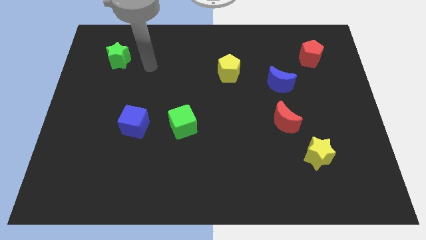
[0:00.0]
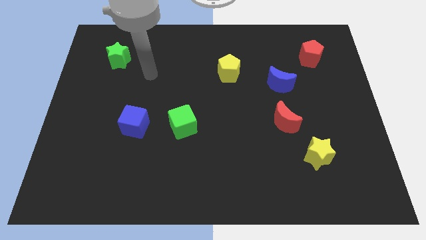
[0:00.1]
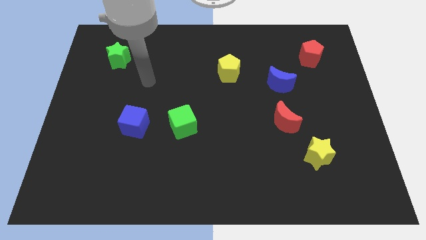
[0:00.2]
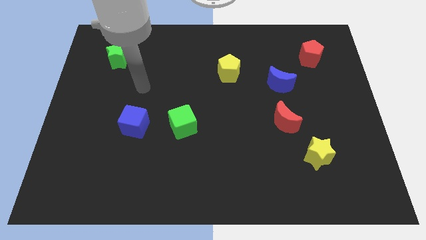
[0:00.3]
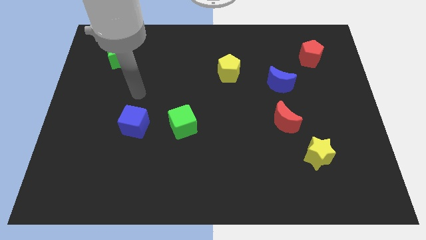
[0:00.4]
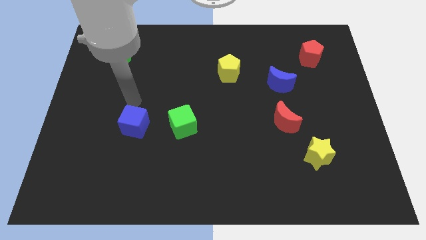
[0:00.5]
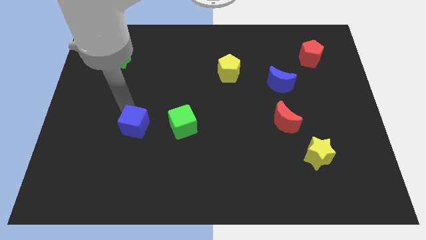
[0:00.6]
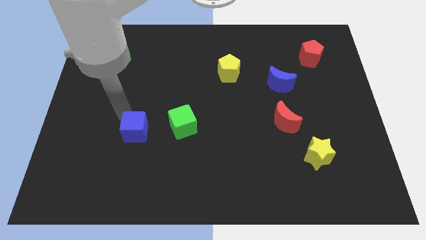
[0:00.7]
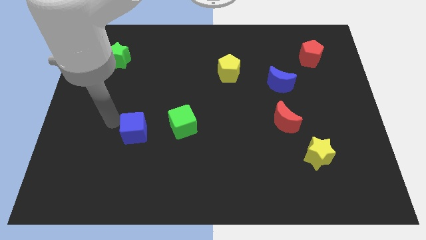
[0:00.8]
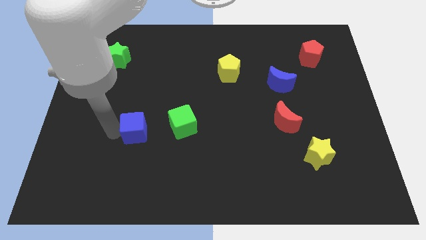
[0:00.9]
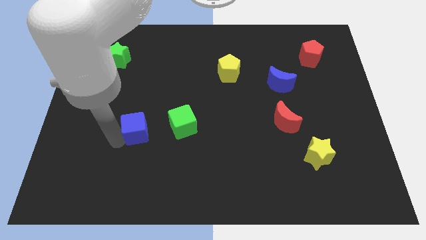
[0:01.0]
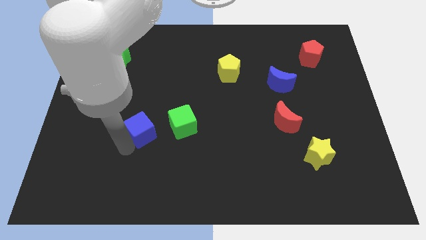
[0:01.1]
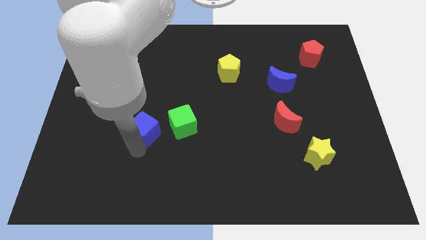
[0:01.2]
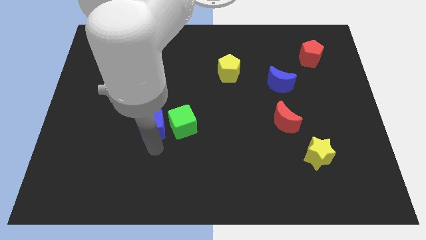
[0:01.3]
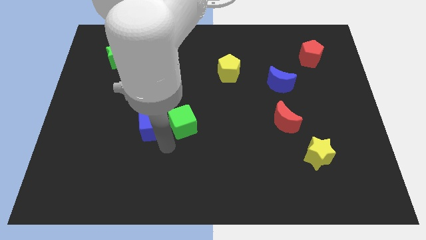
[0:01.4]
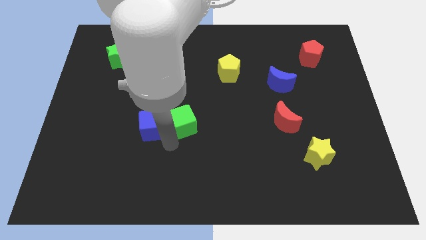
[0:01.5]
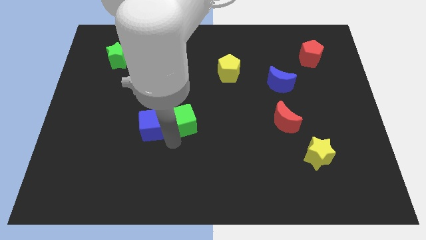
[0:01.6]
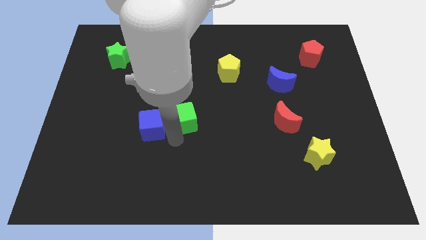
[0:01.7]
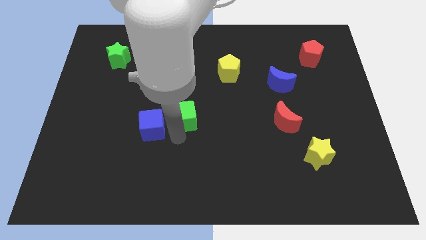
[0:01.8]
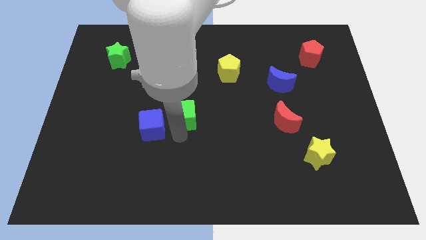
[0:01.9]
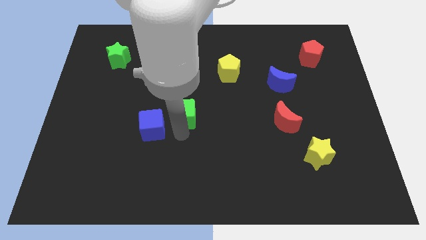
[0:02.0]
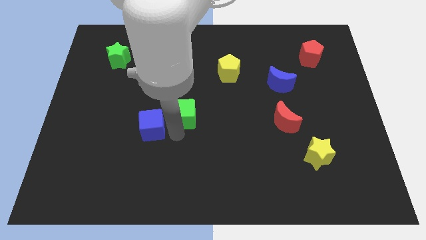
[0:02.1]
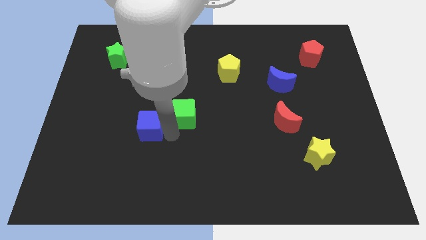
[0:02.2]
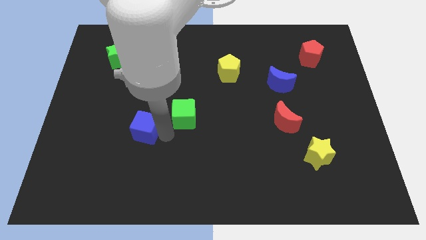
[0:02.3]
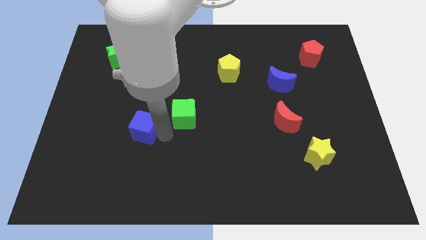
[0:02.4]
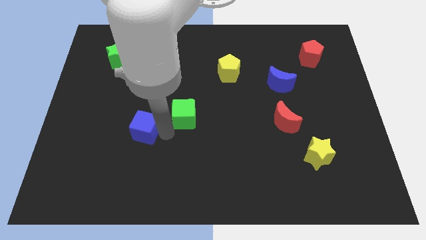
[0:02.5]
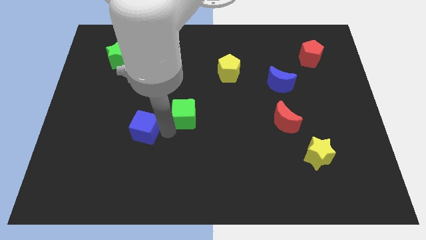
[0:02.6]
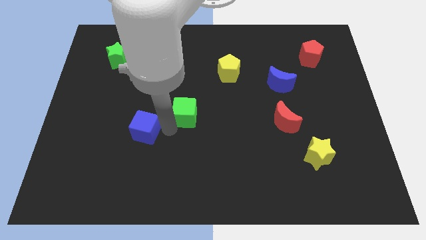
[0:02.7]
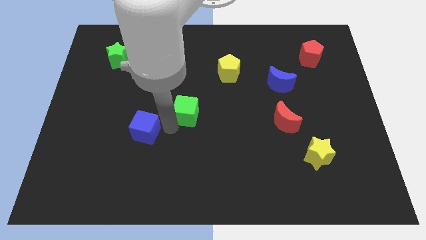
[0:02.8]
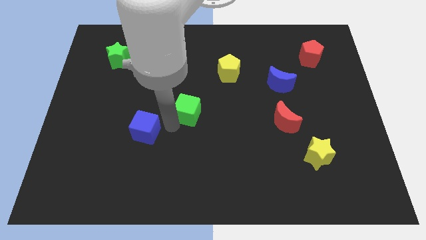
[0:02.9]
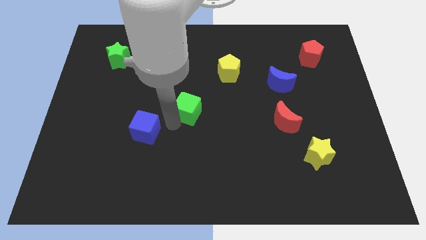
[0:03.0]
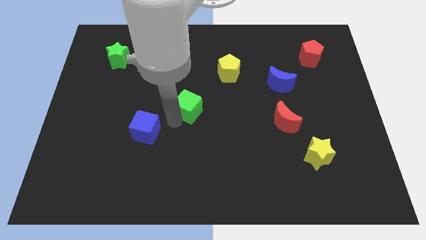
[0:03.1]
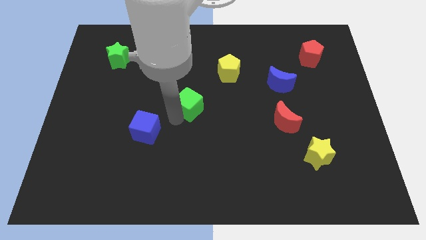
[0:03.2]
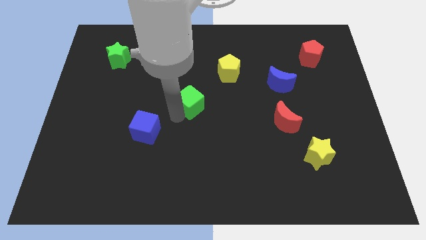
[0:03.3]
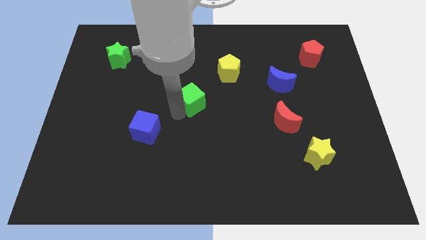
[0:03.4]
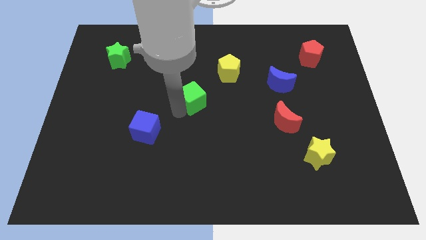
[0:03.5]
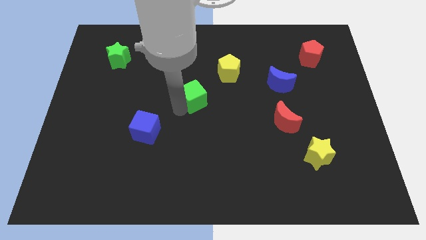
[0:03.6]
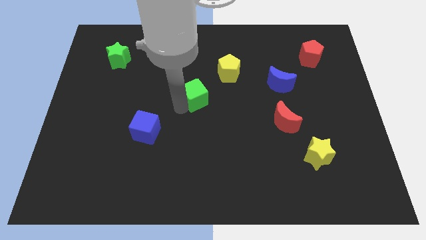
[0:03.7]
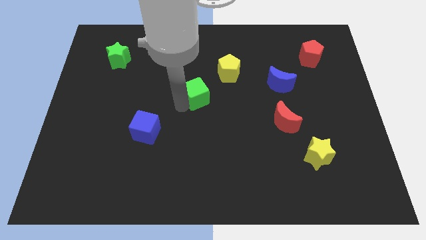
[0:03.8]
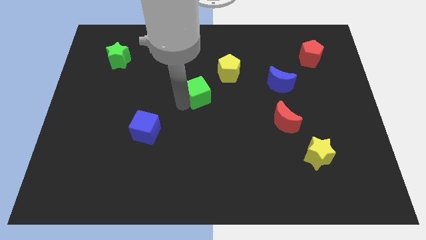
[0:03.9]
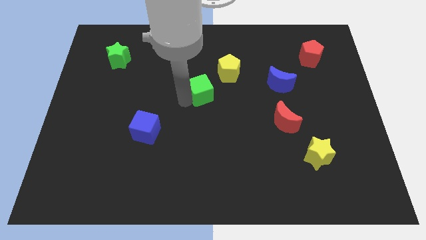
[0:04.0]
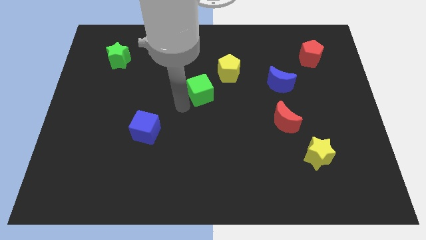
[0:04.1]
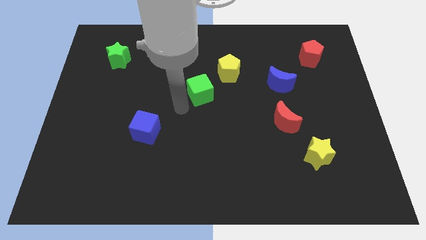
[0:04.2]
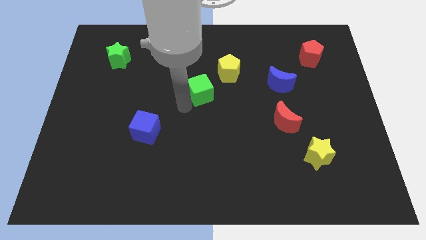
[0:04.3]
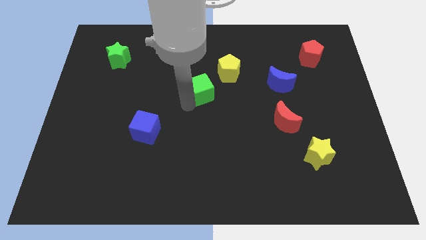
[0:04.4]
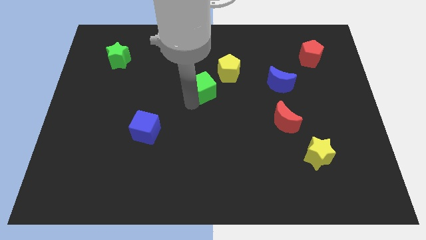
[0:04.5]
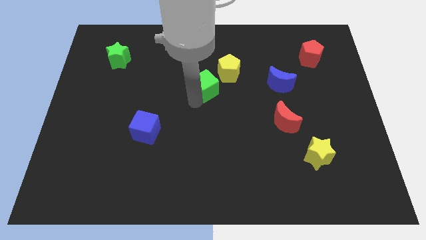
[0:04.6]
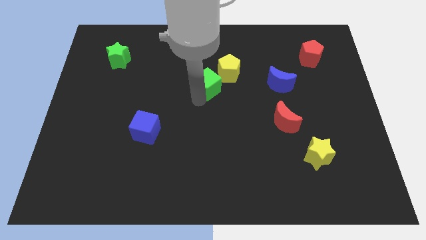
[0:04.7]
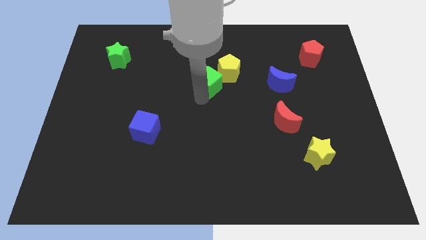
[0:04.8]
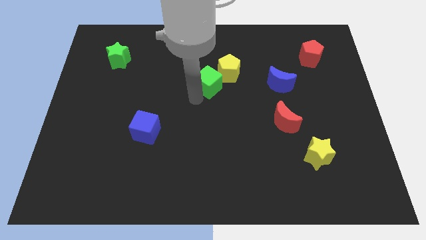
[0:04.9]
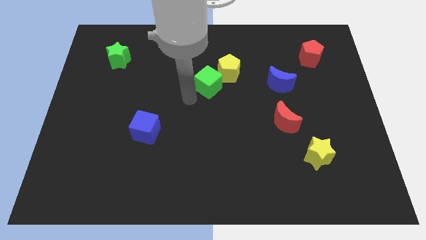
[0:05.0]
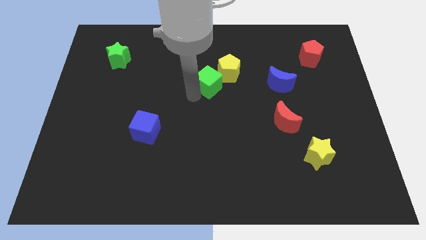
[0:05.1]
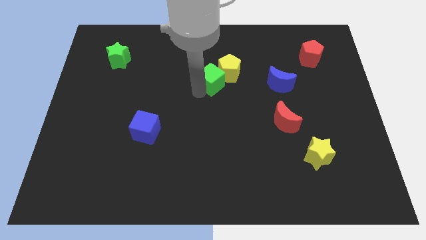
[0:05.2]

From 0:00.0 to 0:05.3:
push the green cube towards the yellow pentagon
